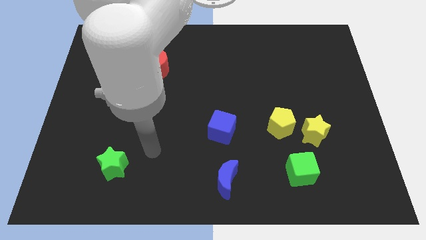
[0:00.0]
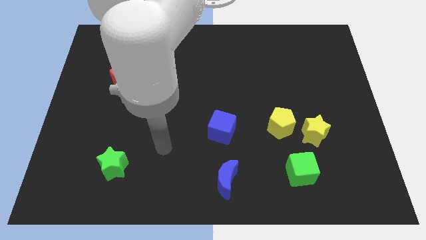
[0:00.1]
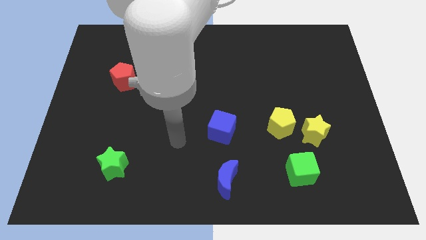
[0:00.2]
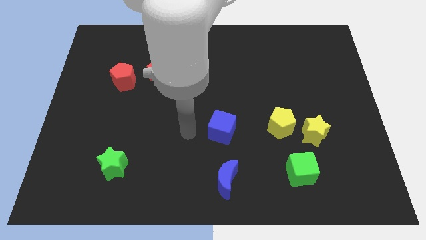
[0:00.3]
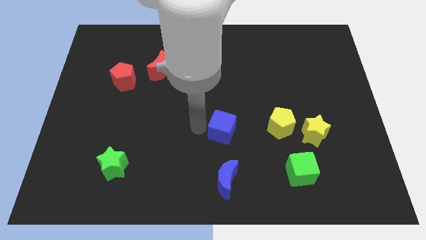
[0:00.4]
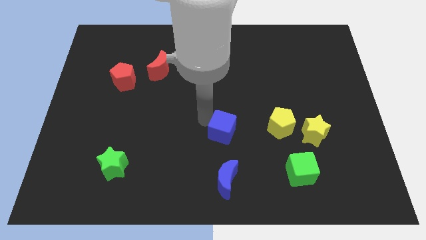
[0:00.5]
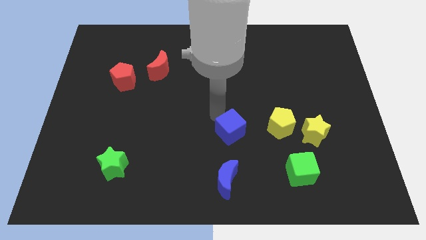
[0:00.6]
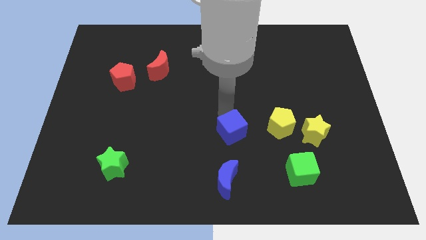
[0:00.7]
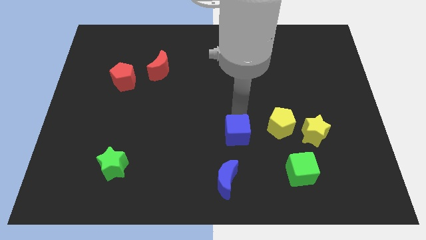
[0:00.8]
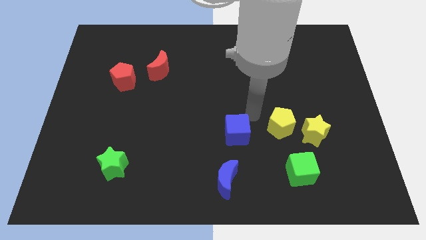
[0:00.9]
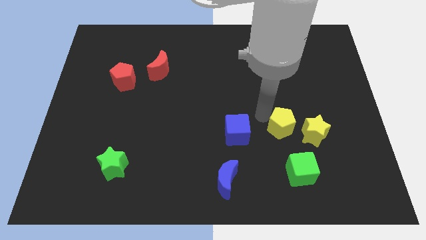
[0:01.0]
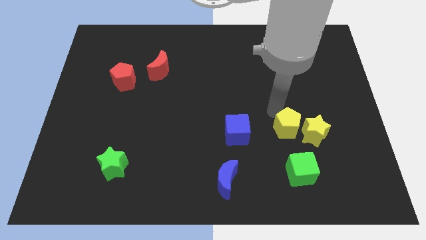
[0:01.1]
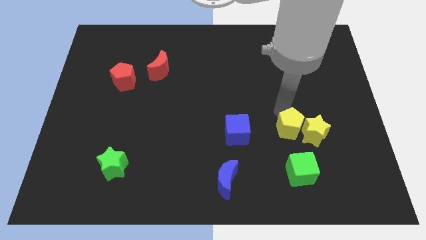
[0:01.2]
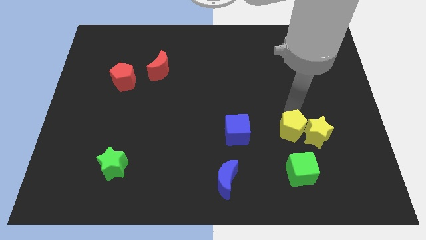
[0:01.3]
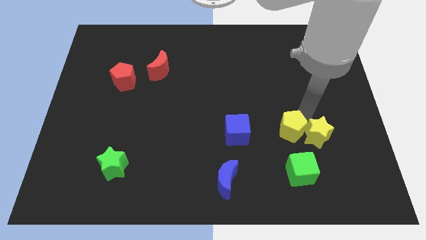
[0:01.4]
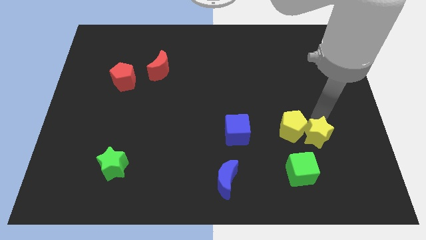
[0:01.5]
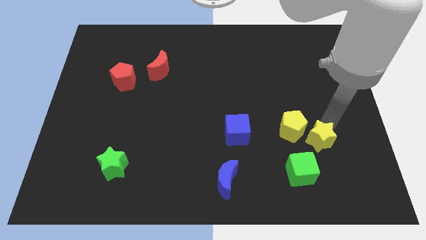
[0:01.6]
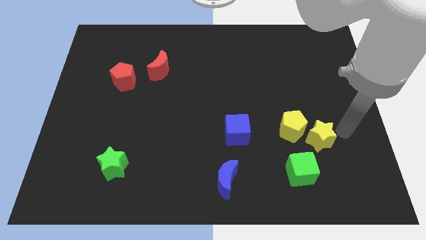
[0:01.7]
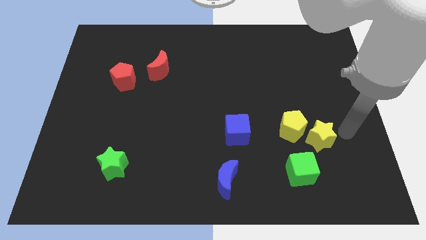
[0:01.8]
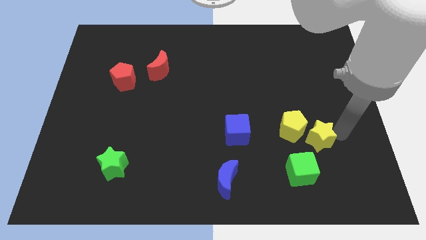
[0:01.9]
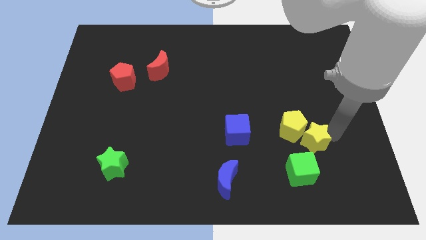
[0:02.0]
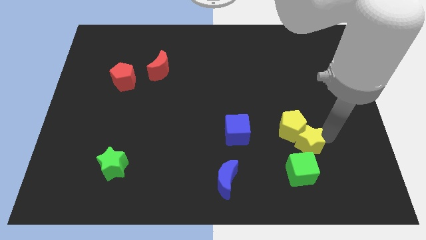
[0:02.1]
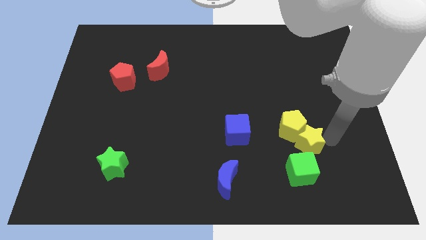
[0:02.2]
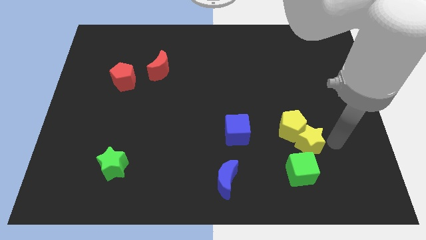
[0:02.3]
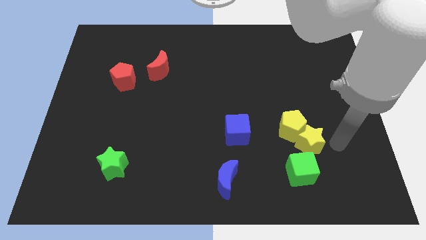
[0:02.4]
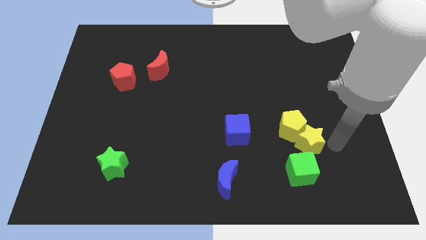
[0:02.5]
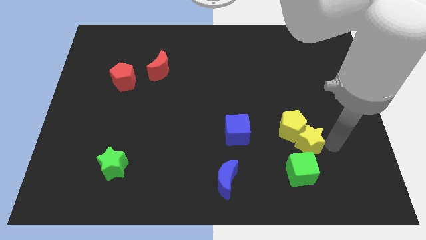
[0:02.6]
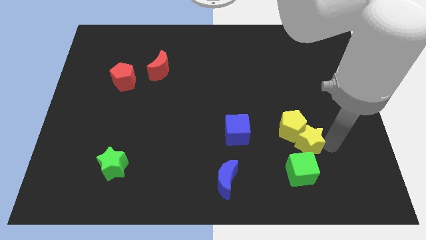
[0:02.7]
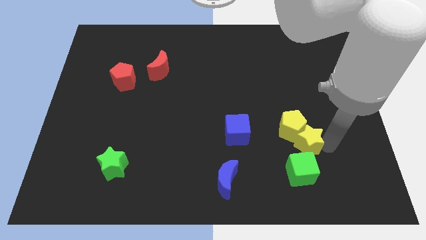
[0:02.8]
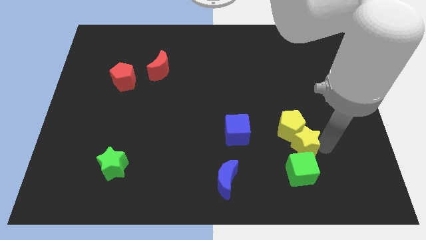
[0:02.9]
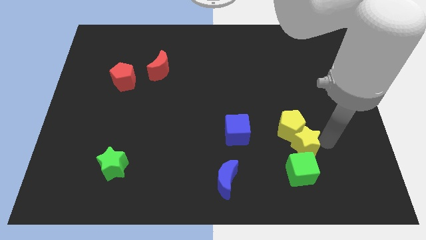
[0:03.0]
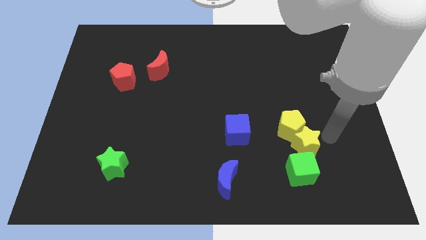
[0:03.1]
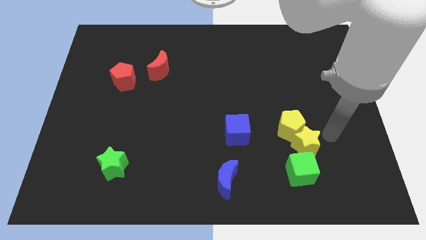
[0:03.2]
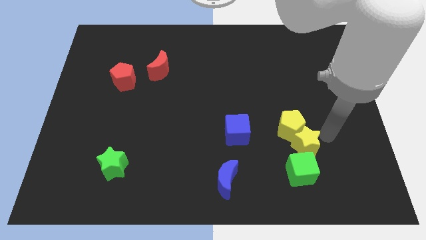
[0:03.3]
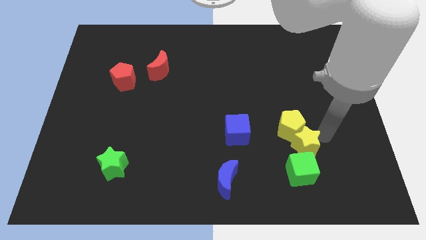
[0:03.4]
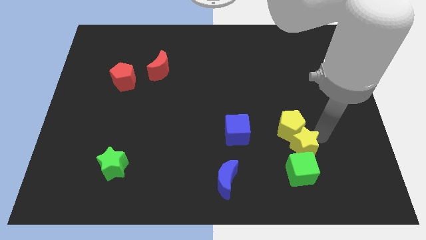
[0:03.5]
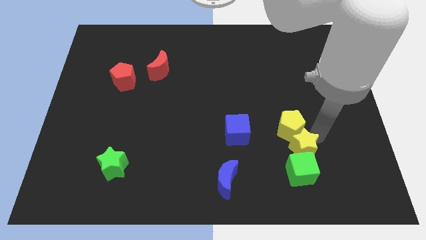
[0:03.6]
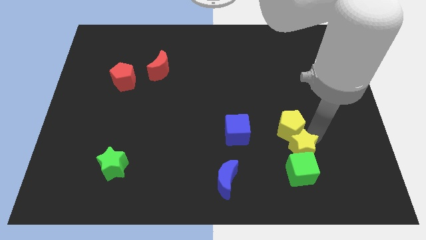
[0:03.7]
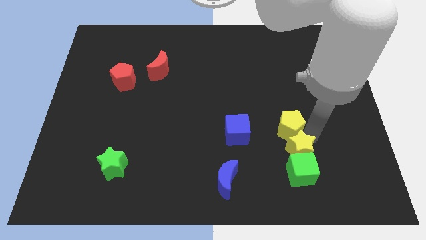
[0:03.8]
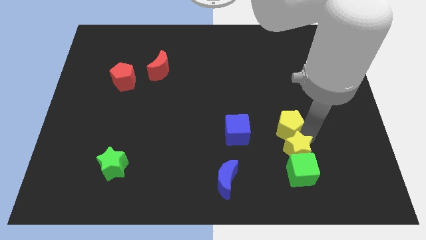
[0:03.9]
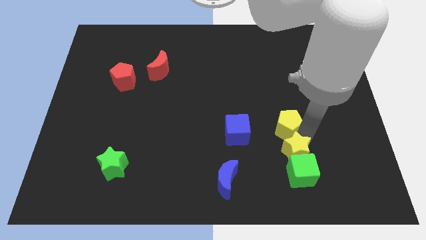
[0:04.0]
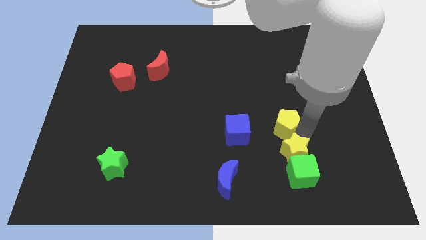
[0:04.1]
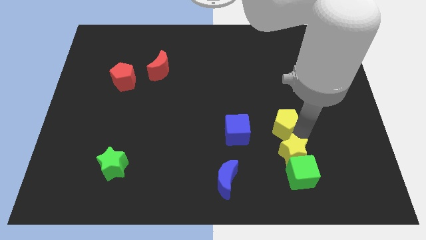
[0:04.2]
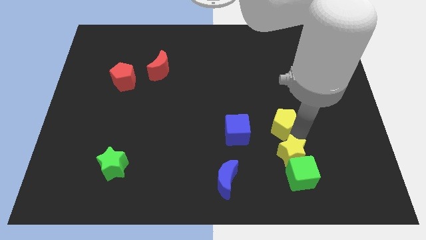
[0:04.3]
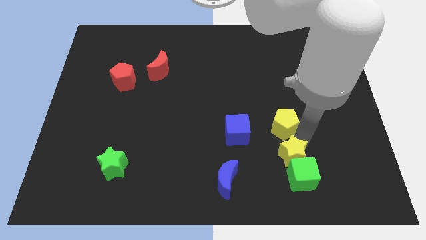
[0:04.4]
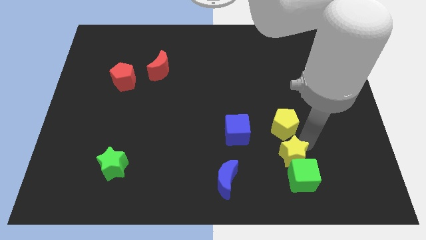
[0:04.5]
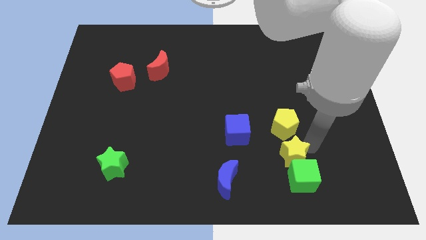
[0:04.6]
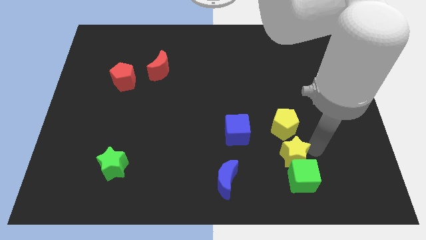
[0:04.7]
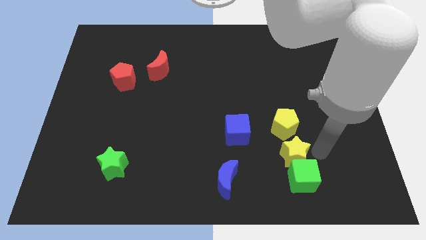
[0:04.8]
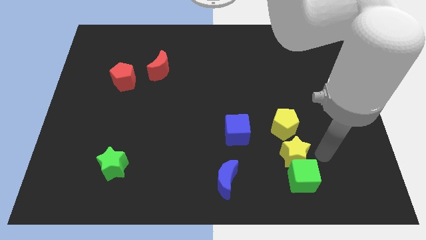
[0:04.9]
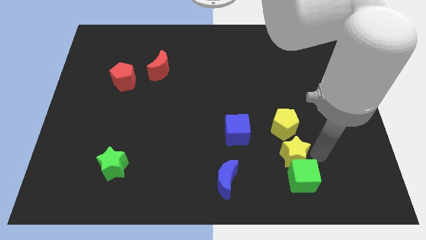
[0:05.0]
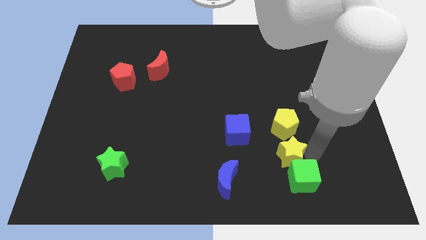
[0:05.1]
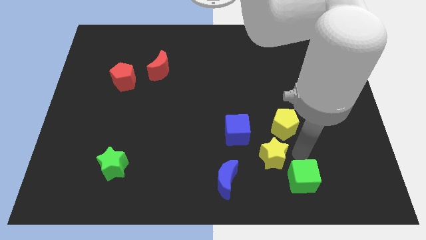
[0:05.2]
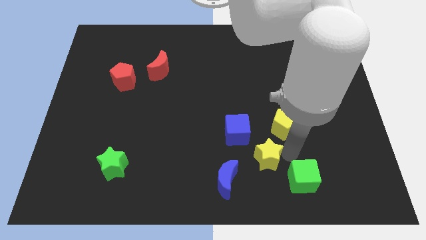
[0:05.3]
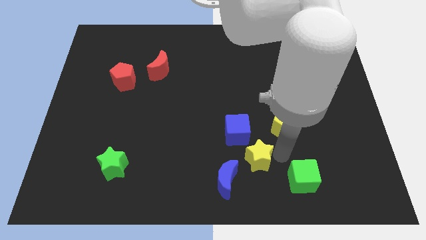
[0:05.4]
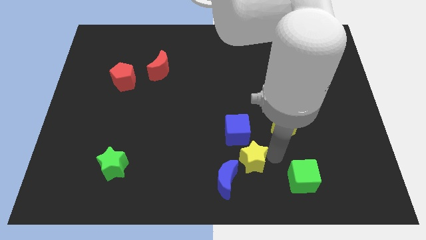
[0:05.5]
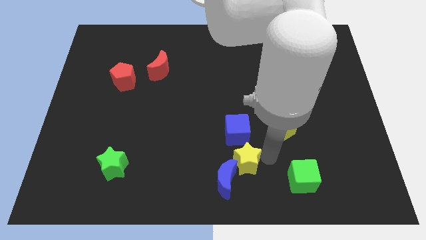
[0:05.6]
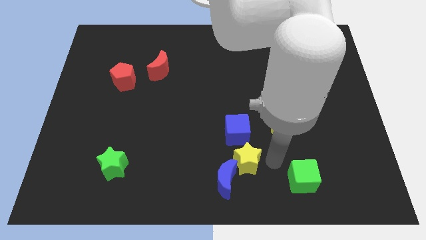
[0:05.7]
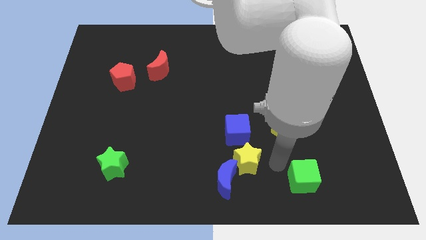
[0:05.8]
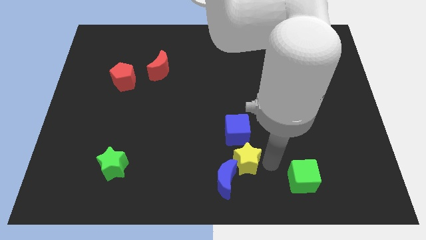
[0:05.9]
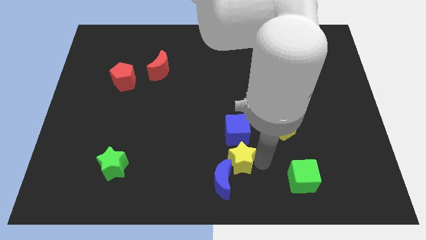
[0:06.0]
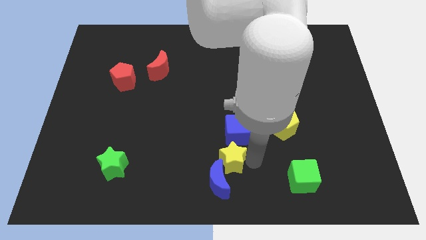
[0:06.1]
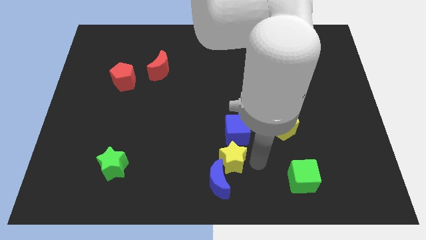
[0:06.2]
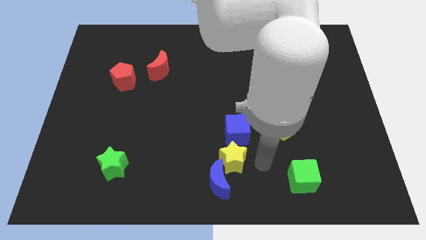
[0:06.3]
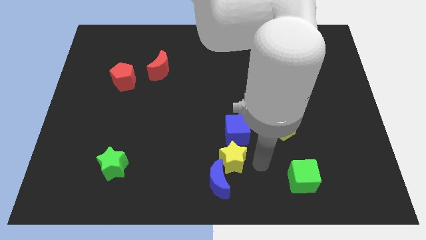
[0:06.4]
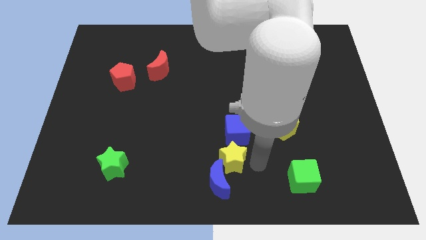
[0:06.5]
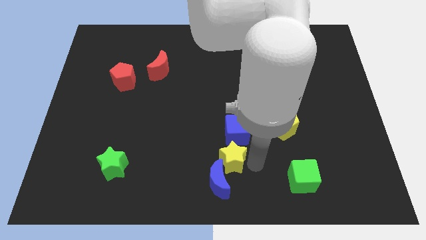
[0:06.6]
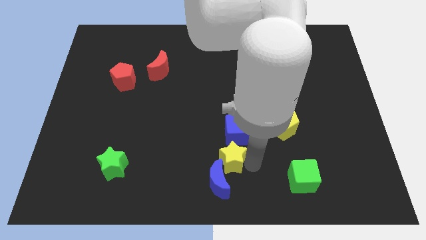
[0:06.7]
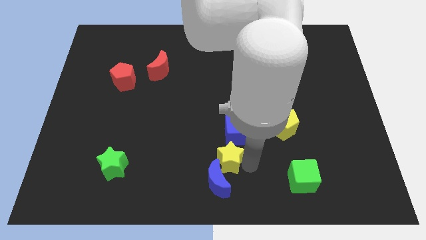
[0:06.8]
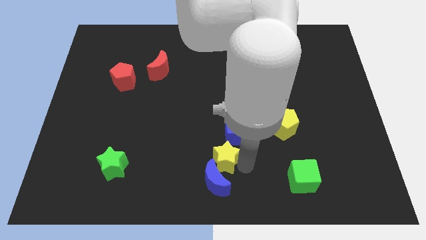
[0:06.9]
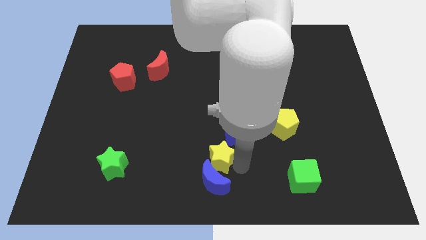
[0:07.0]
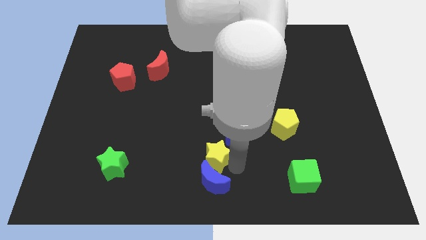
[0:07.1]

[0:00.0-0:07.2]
push the yellow star to the left

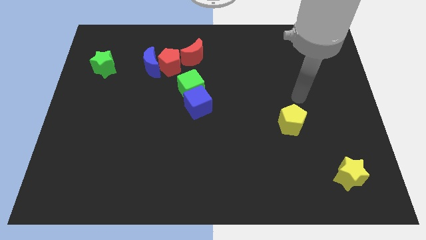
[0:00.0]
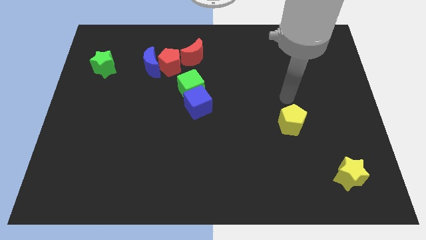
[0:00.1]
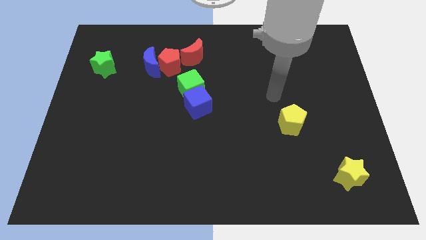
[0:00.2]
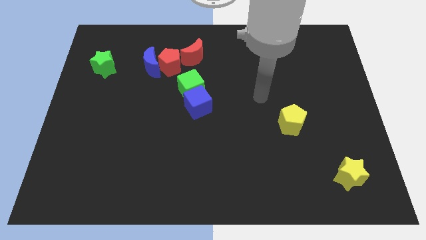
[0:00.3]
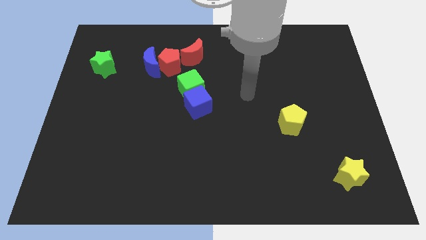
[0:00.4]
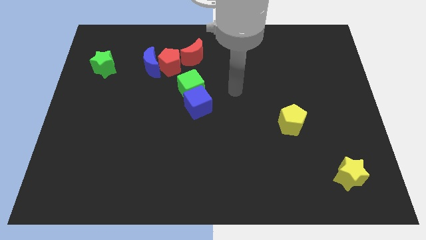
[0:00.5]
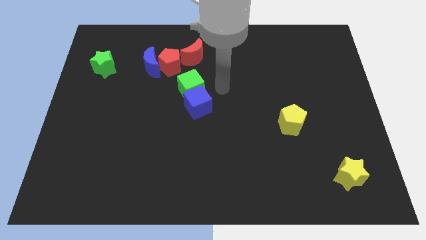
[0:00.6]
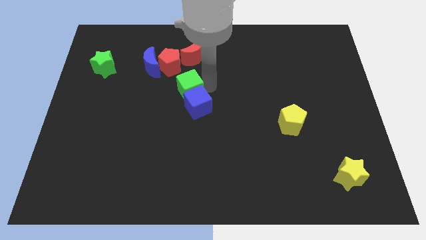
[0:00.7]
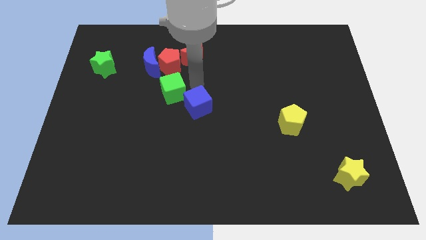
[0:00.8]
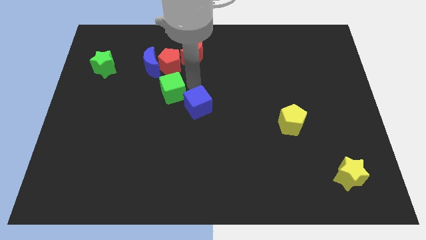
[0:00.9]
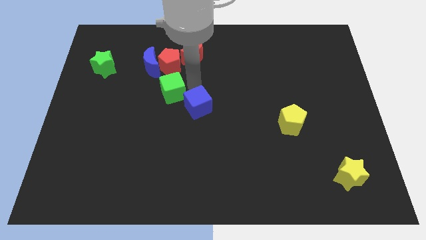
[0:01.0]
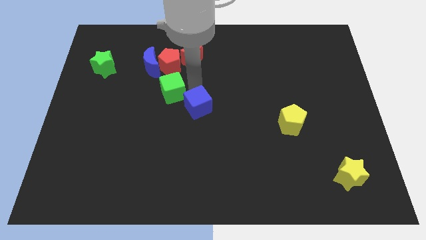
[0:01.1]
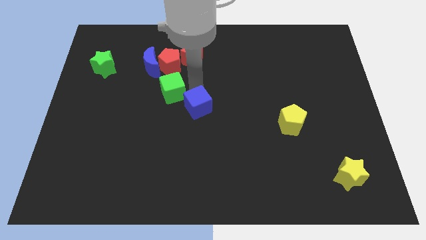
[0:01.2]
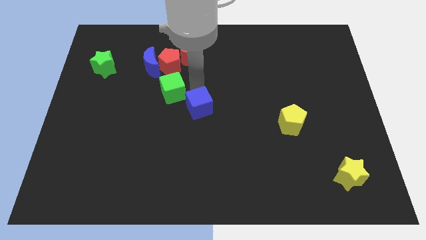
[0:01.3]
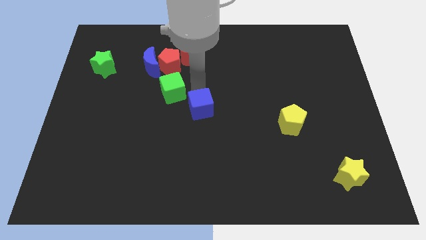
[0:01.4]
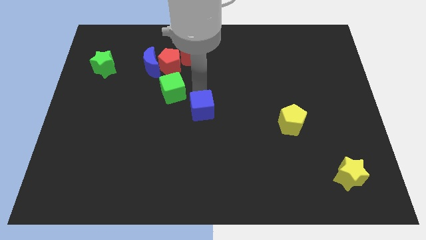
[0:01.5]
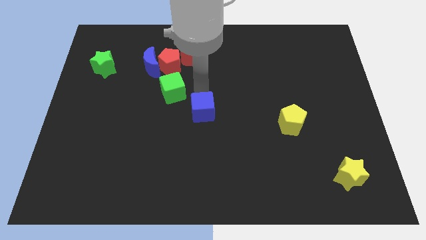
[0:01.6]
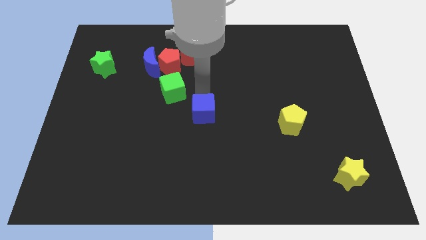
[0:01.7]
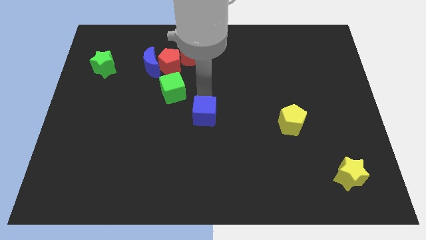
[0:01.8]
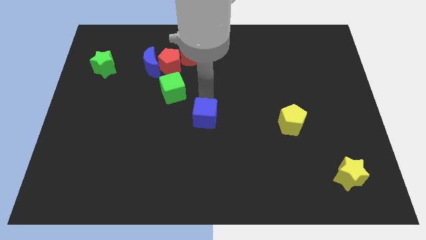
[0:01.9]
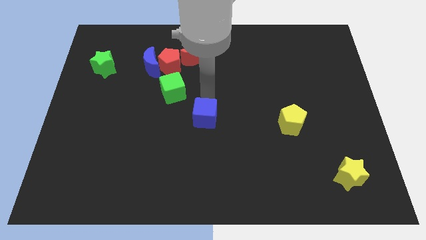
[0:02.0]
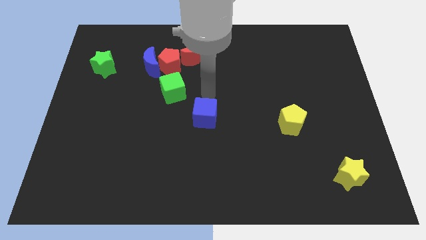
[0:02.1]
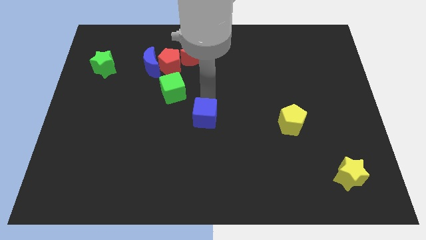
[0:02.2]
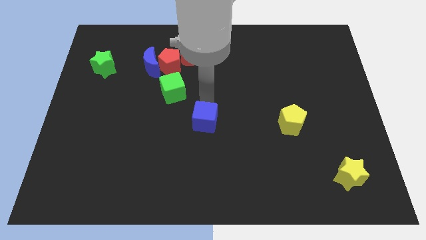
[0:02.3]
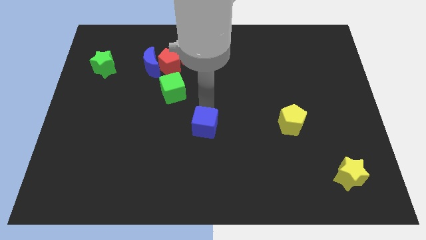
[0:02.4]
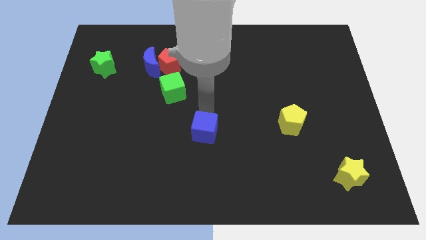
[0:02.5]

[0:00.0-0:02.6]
slide the blue cube downwards a little
